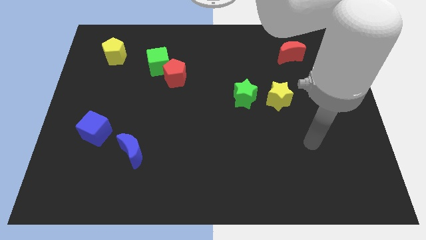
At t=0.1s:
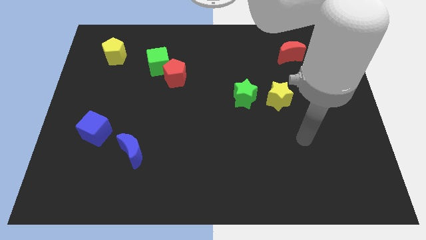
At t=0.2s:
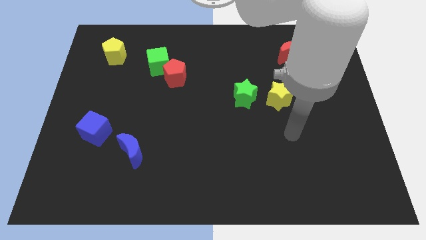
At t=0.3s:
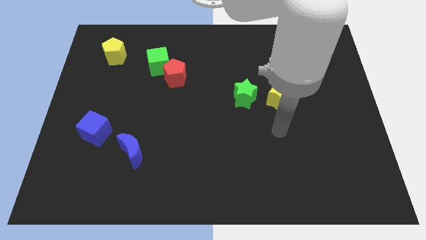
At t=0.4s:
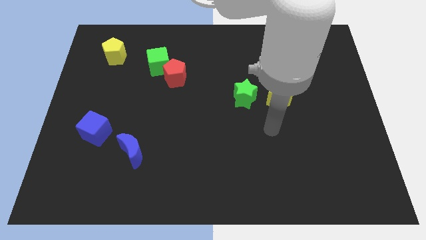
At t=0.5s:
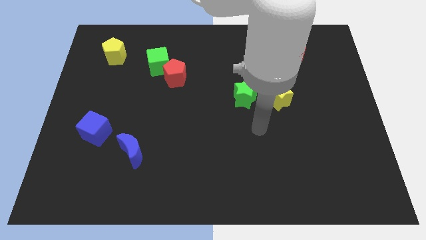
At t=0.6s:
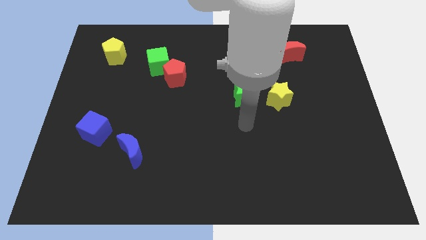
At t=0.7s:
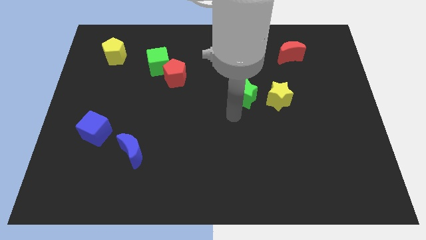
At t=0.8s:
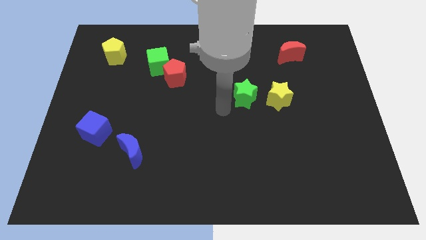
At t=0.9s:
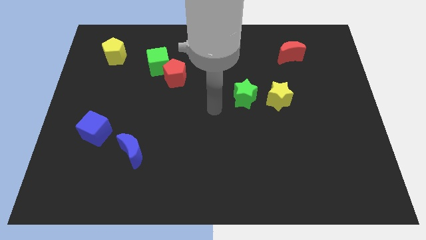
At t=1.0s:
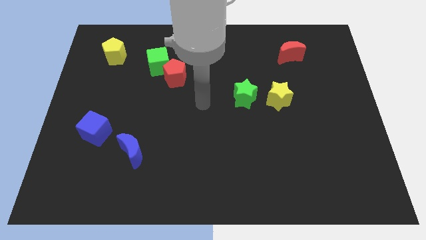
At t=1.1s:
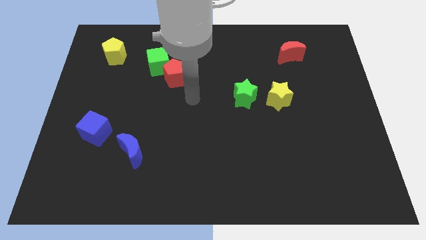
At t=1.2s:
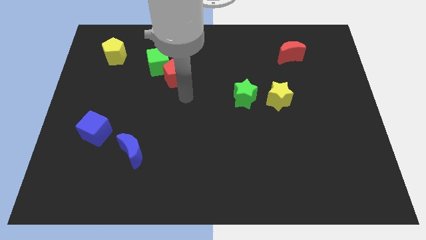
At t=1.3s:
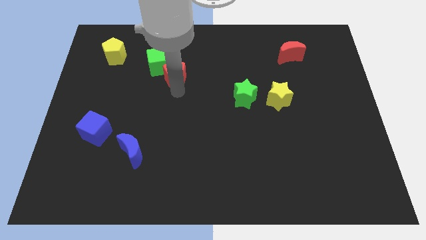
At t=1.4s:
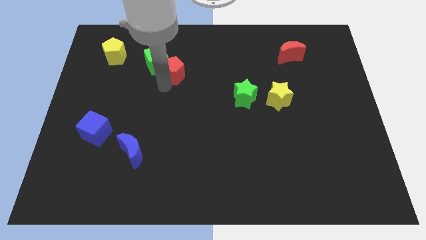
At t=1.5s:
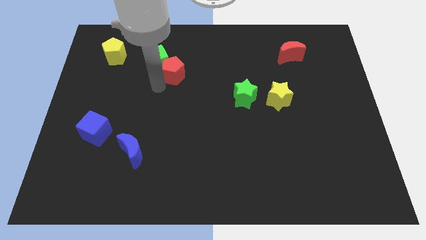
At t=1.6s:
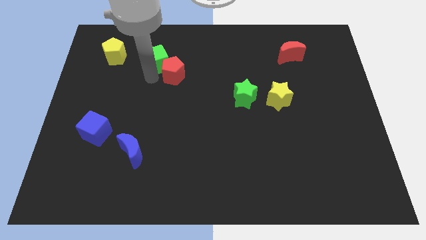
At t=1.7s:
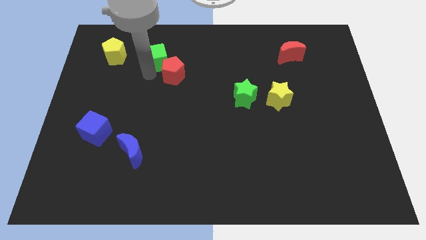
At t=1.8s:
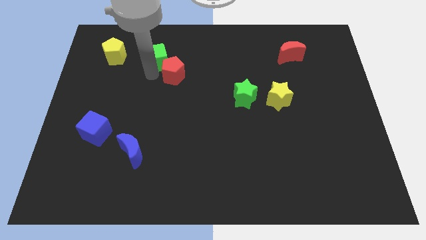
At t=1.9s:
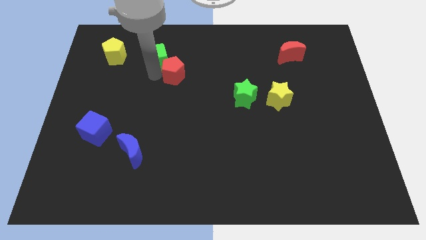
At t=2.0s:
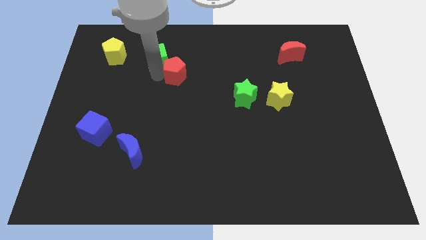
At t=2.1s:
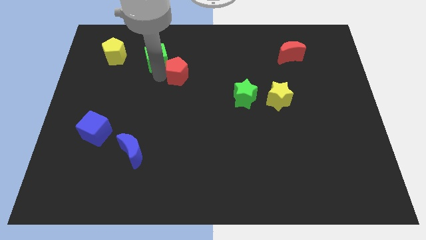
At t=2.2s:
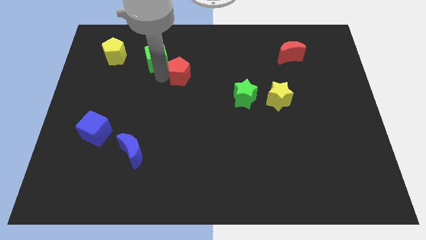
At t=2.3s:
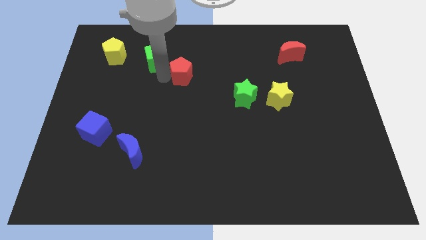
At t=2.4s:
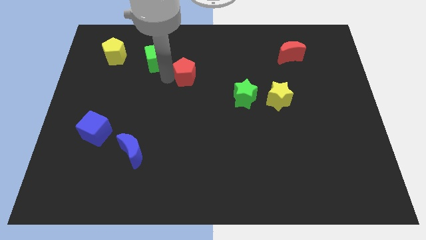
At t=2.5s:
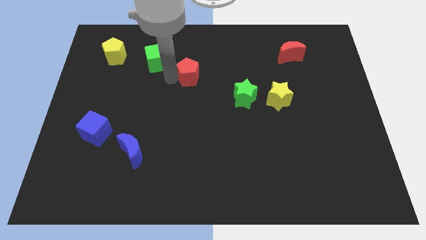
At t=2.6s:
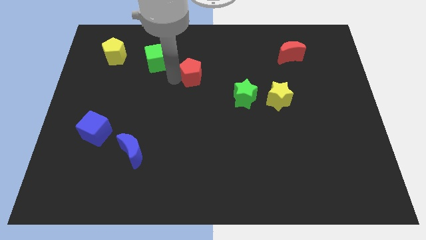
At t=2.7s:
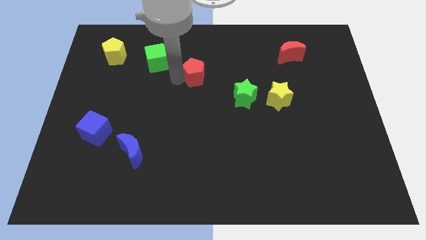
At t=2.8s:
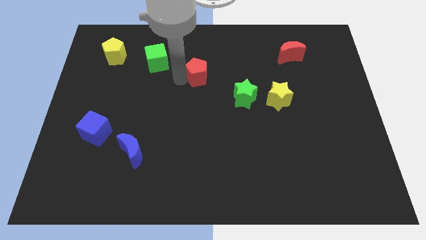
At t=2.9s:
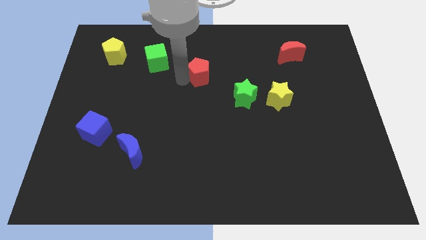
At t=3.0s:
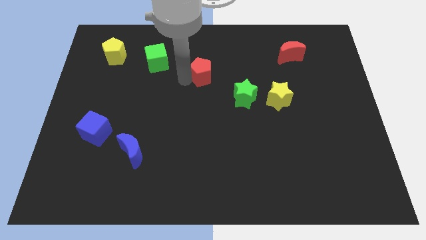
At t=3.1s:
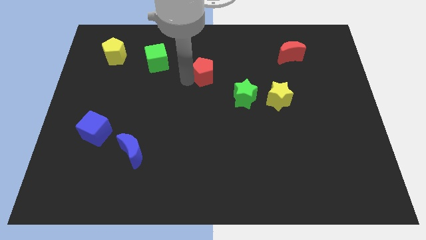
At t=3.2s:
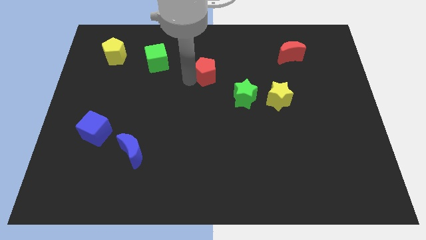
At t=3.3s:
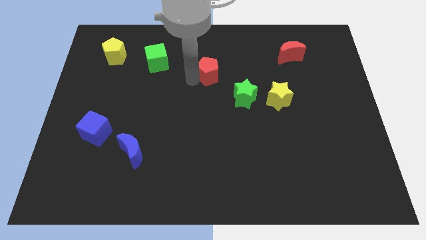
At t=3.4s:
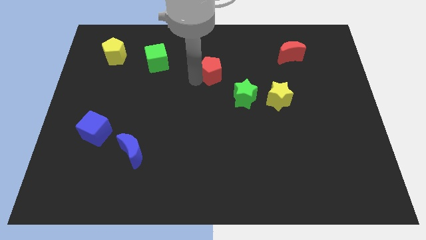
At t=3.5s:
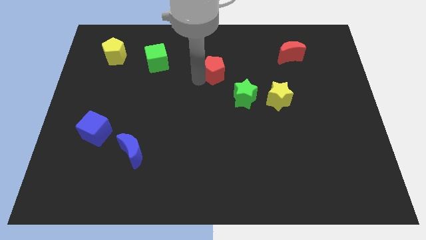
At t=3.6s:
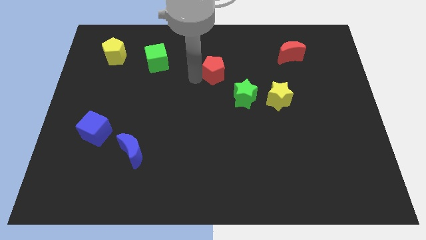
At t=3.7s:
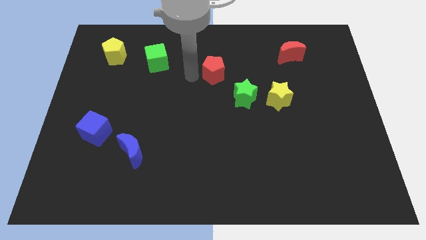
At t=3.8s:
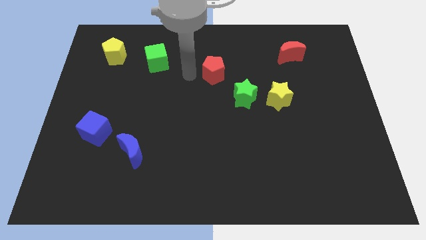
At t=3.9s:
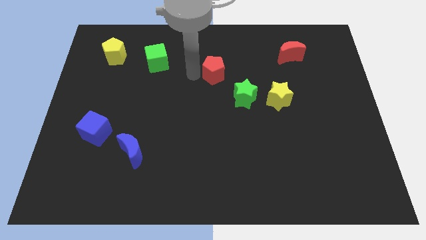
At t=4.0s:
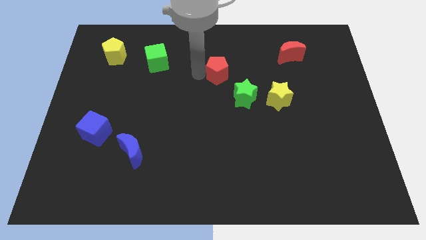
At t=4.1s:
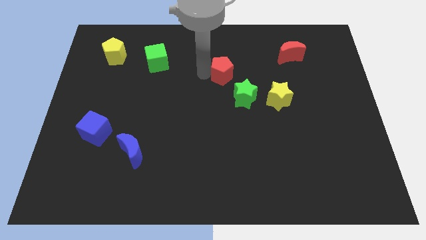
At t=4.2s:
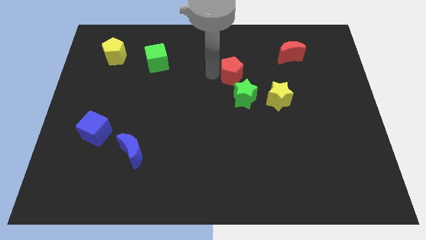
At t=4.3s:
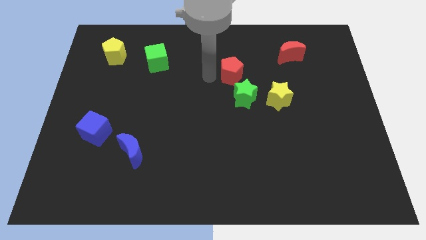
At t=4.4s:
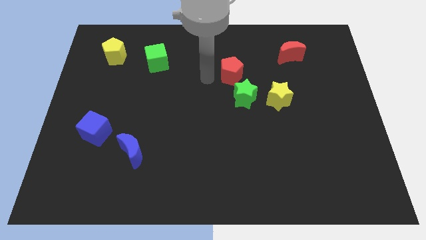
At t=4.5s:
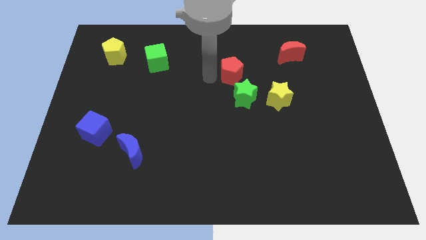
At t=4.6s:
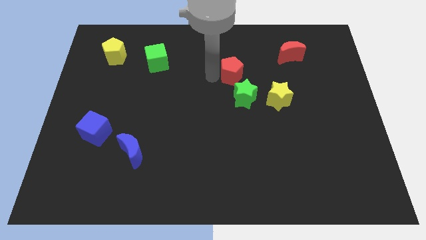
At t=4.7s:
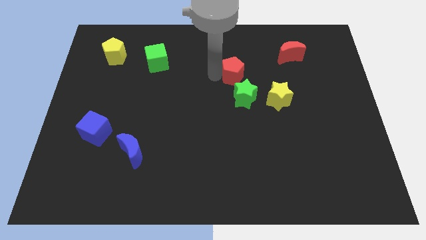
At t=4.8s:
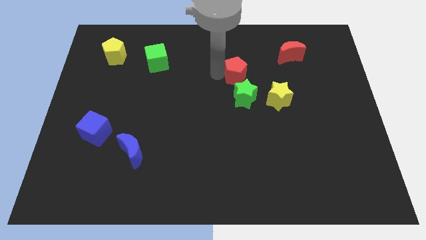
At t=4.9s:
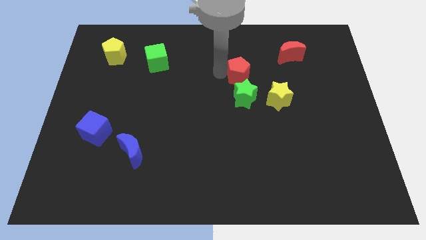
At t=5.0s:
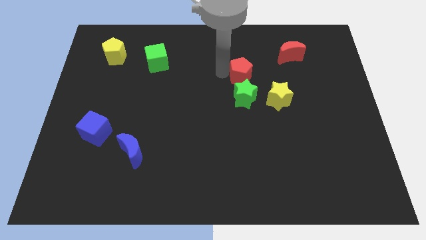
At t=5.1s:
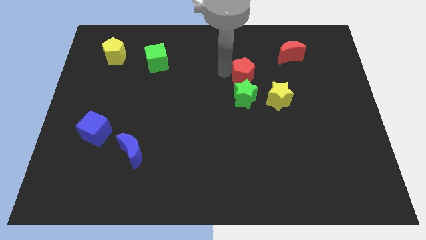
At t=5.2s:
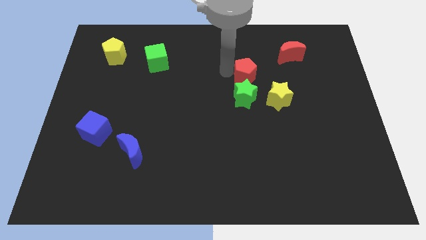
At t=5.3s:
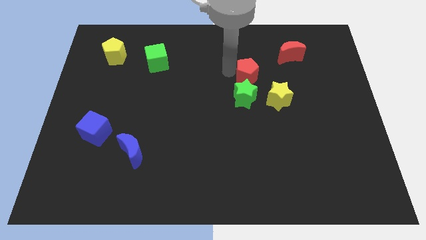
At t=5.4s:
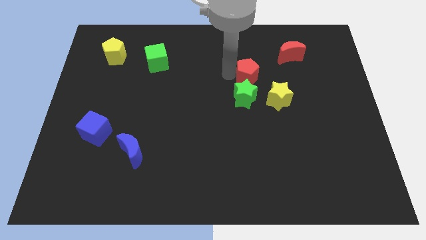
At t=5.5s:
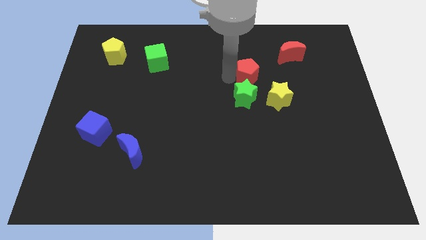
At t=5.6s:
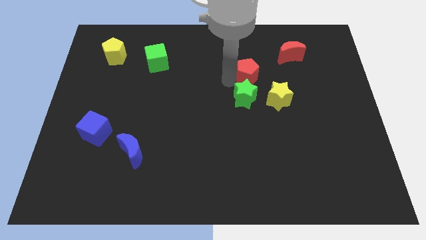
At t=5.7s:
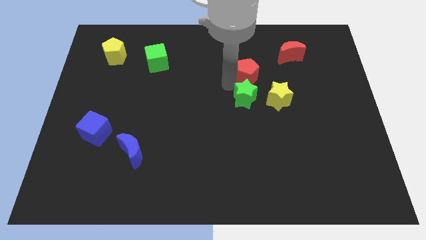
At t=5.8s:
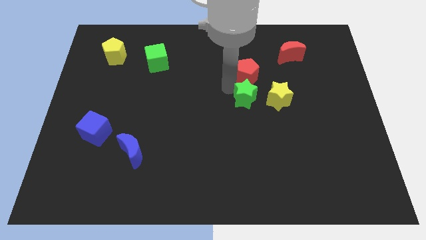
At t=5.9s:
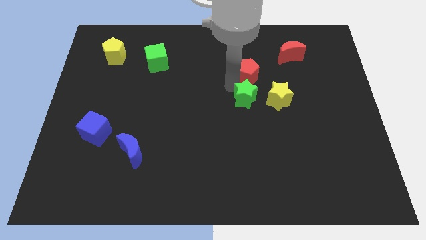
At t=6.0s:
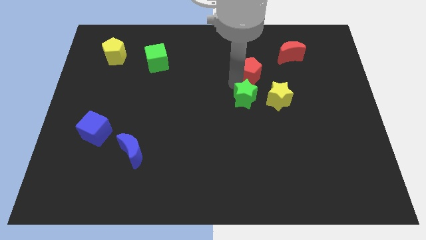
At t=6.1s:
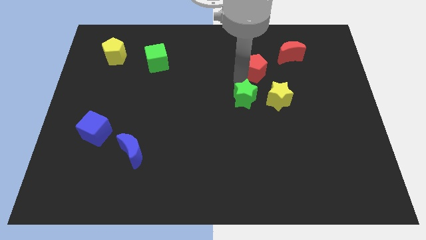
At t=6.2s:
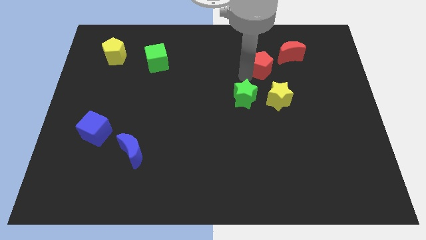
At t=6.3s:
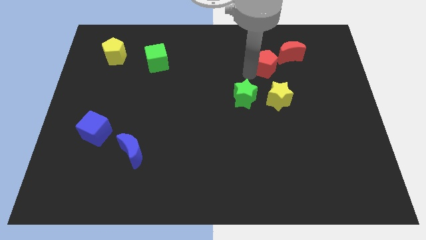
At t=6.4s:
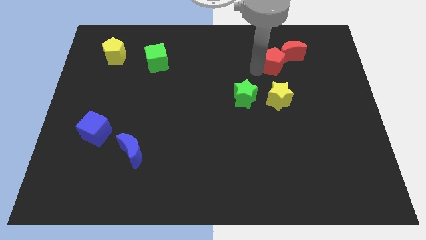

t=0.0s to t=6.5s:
put the red pentagon to the red moon

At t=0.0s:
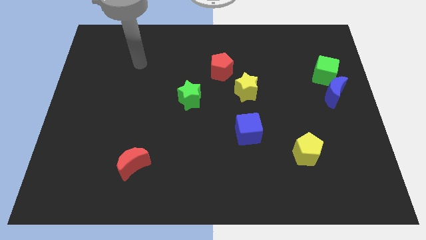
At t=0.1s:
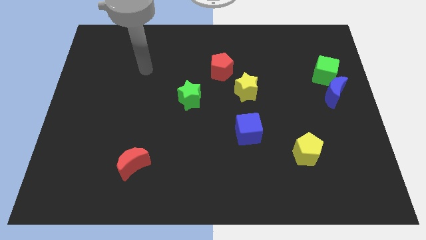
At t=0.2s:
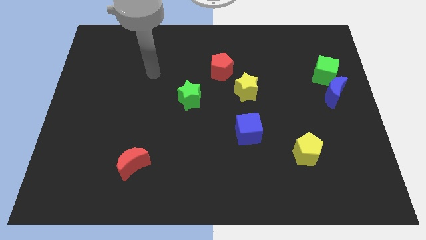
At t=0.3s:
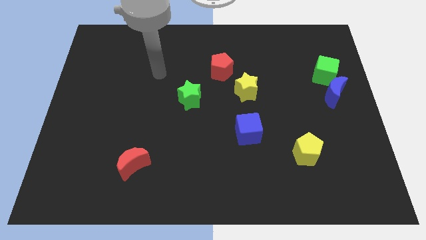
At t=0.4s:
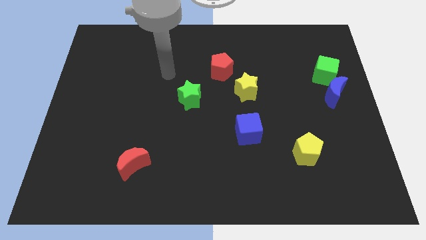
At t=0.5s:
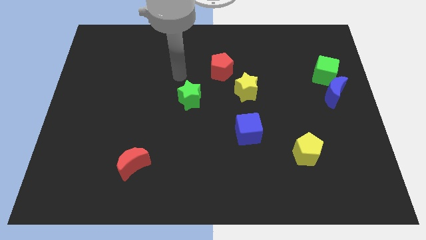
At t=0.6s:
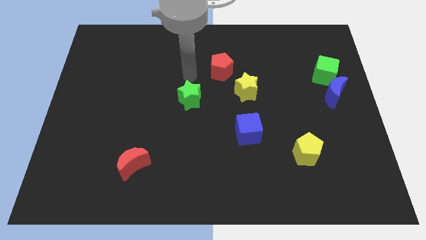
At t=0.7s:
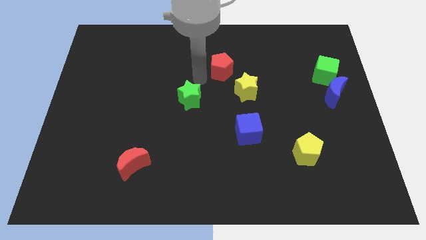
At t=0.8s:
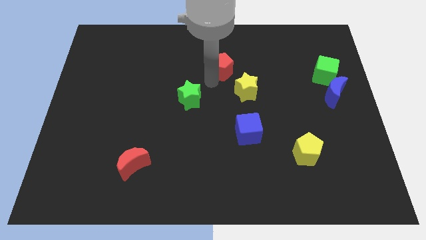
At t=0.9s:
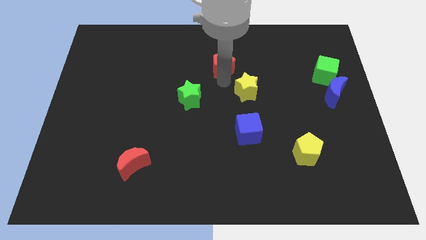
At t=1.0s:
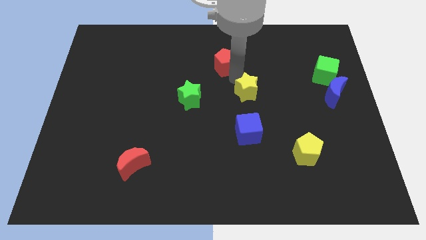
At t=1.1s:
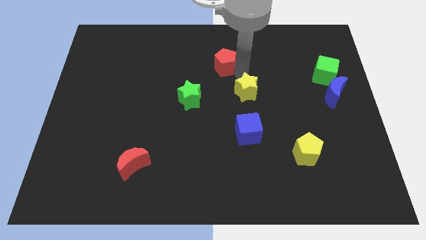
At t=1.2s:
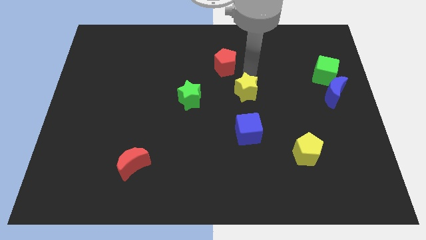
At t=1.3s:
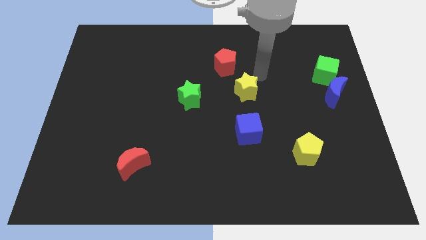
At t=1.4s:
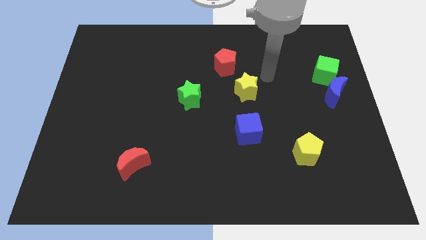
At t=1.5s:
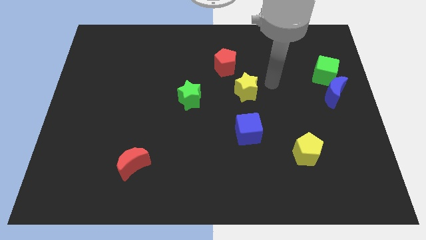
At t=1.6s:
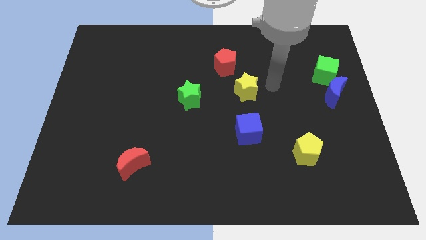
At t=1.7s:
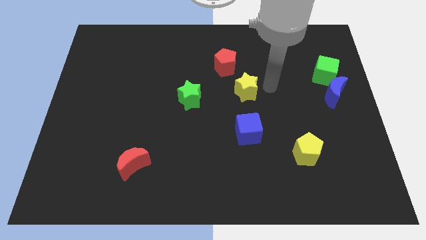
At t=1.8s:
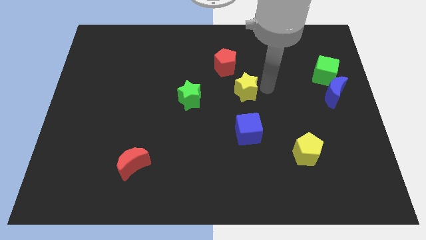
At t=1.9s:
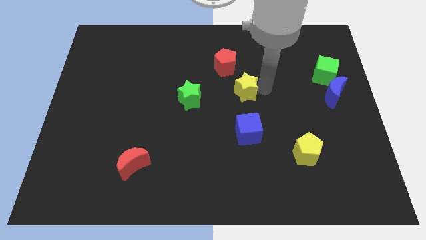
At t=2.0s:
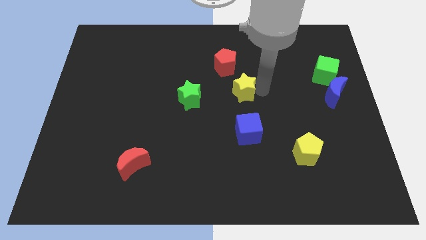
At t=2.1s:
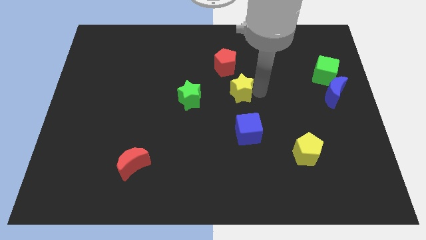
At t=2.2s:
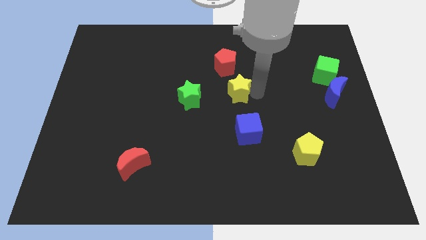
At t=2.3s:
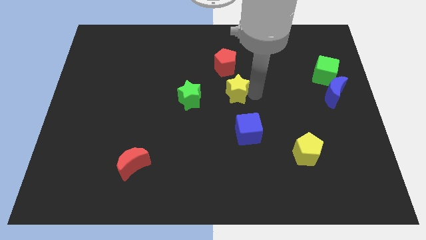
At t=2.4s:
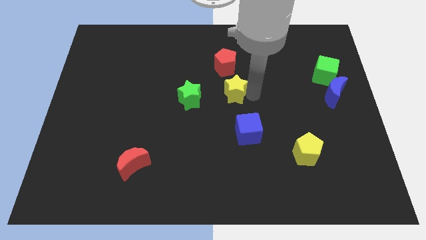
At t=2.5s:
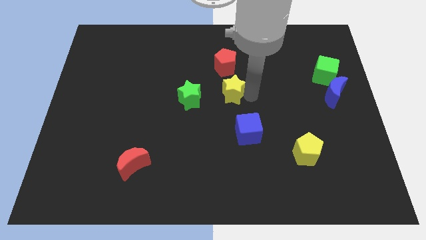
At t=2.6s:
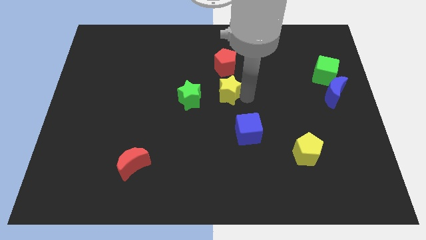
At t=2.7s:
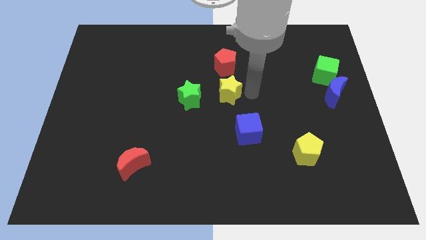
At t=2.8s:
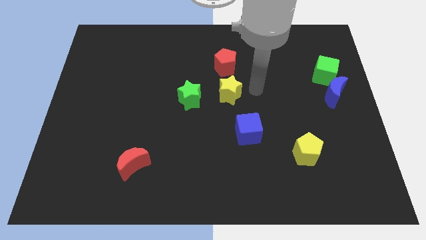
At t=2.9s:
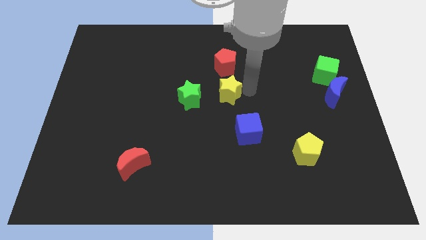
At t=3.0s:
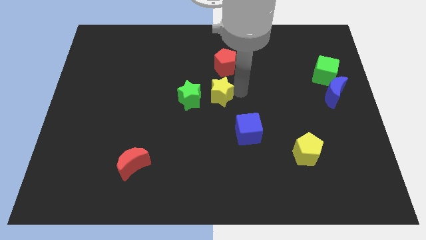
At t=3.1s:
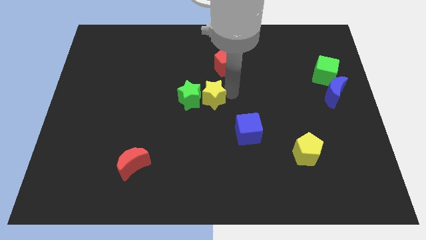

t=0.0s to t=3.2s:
put the yellow star next to the green star
